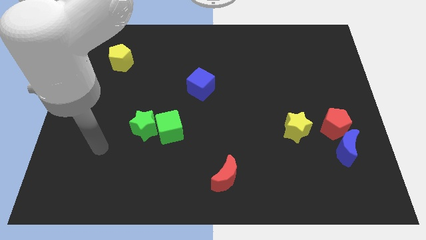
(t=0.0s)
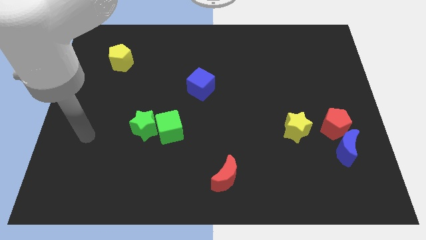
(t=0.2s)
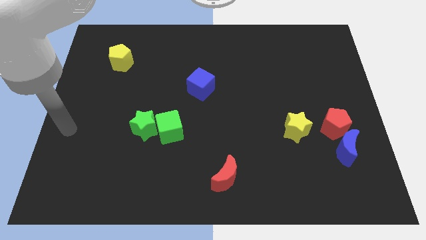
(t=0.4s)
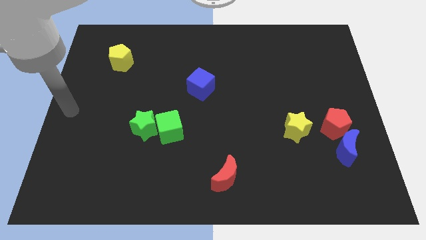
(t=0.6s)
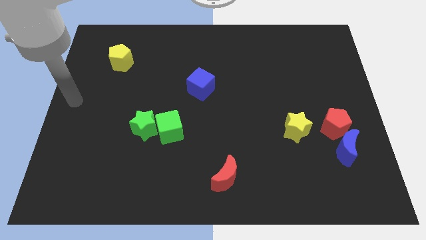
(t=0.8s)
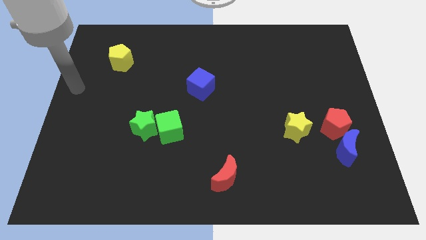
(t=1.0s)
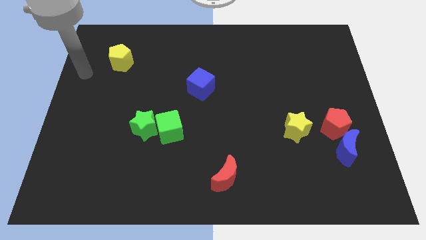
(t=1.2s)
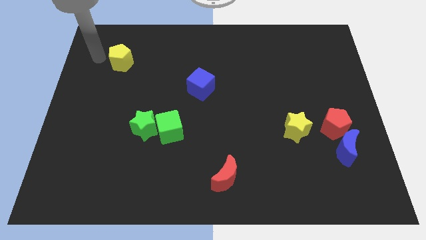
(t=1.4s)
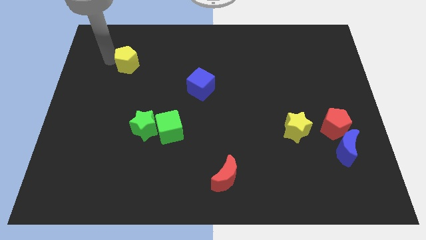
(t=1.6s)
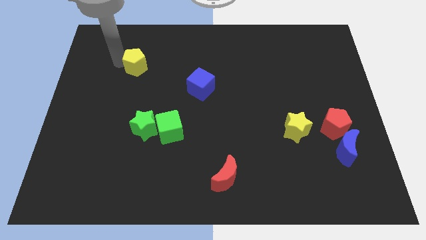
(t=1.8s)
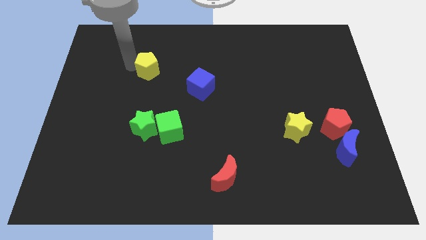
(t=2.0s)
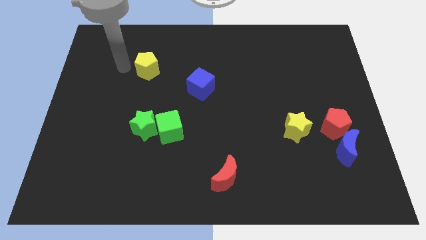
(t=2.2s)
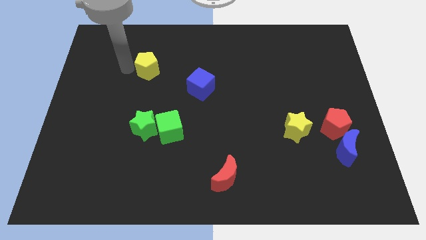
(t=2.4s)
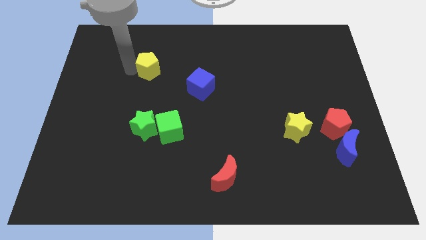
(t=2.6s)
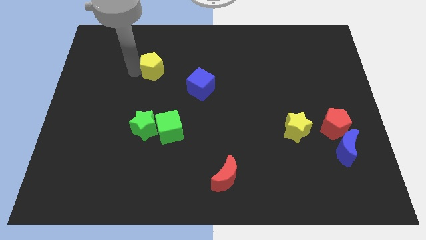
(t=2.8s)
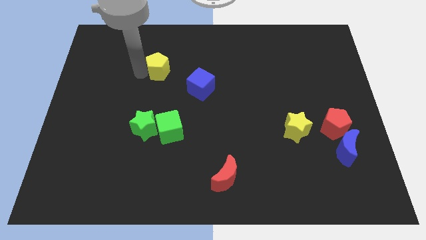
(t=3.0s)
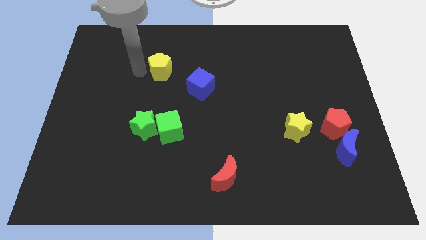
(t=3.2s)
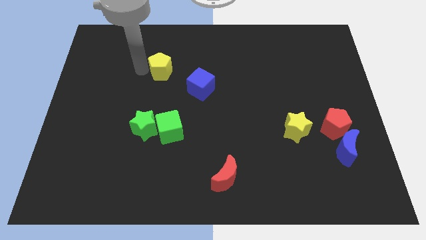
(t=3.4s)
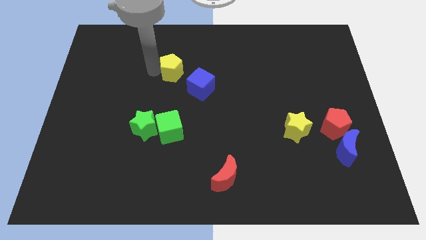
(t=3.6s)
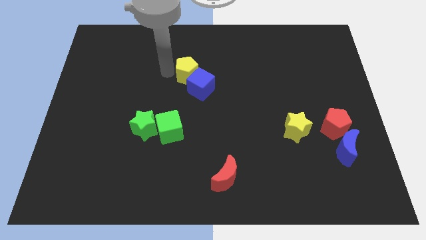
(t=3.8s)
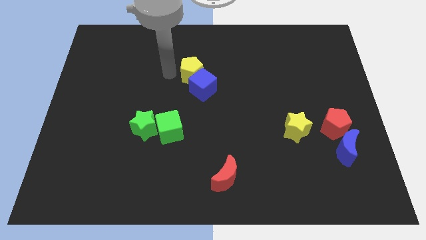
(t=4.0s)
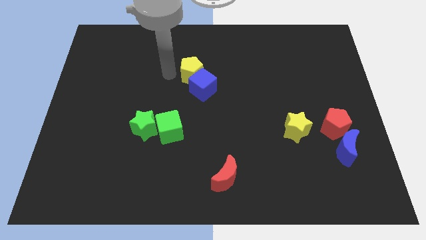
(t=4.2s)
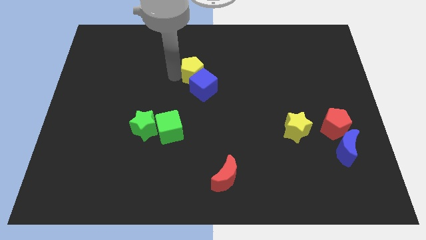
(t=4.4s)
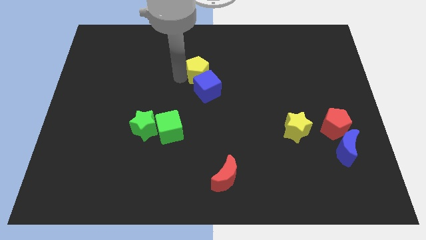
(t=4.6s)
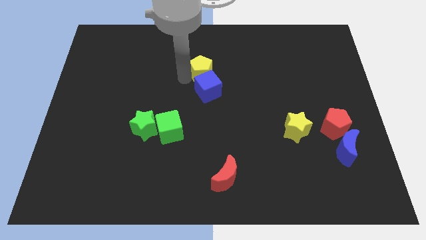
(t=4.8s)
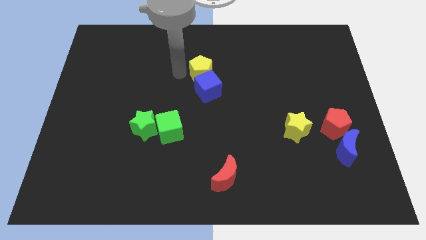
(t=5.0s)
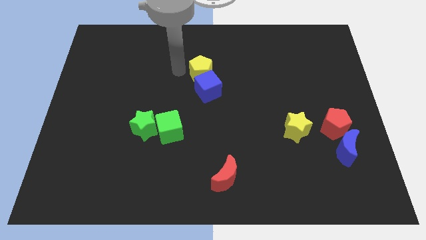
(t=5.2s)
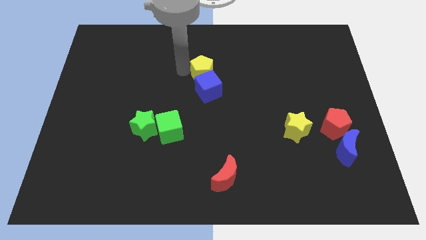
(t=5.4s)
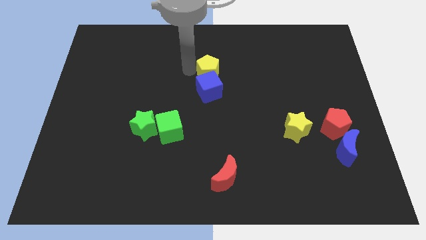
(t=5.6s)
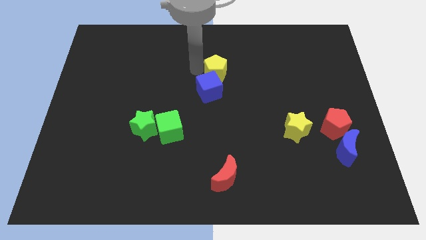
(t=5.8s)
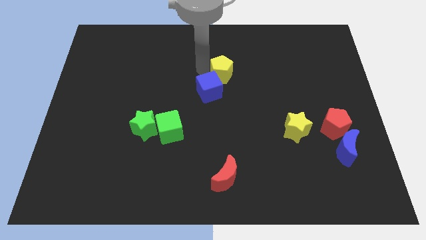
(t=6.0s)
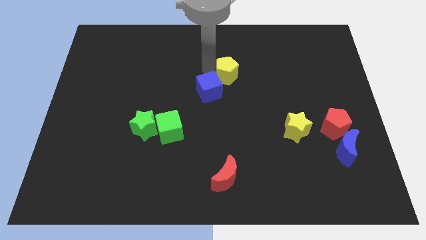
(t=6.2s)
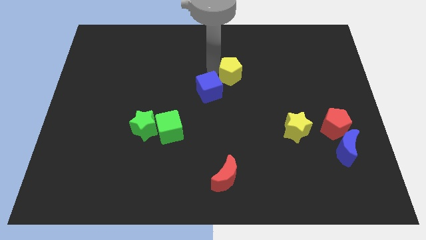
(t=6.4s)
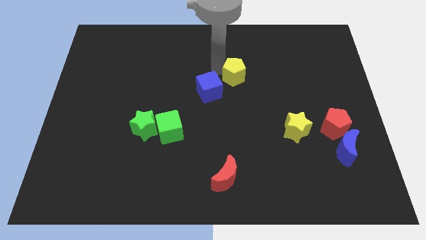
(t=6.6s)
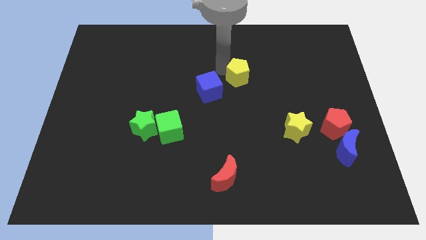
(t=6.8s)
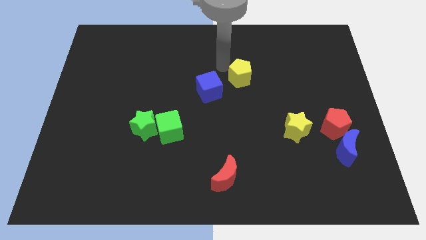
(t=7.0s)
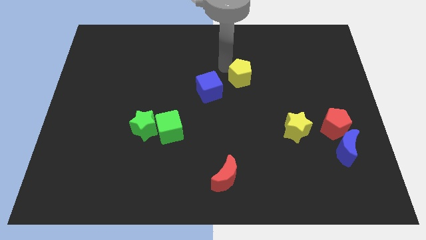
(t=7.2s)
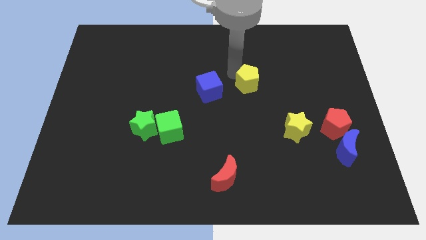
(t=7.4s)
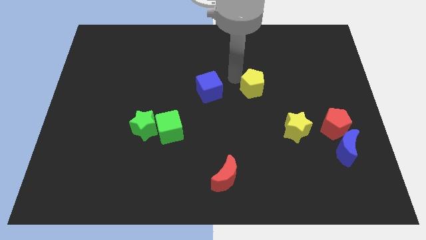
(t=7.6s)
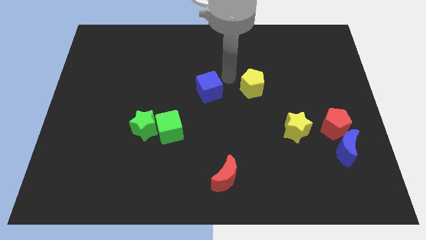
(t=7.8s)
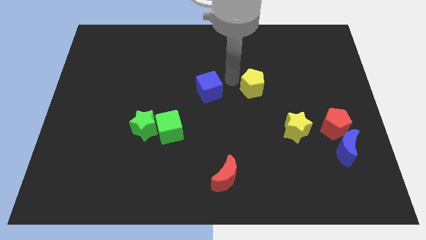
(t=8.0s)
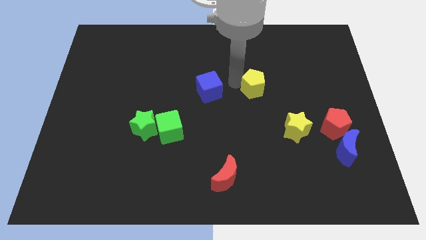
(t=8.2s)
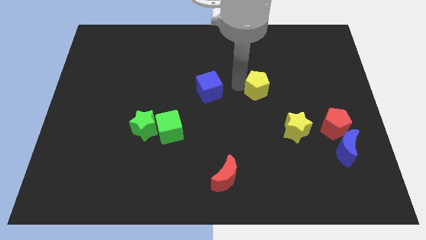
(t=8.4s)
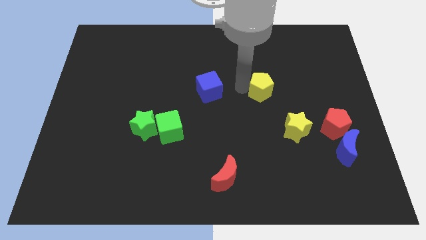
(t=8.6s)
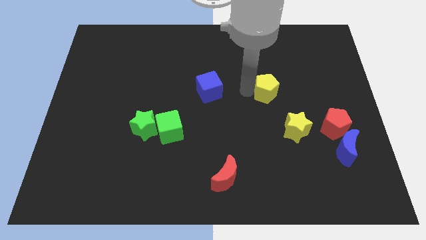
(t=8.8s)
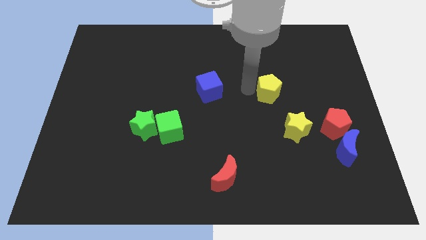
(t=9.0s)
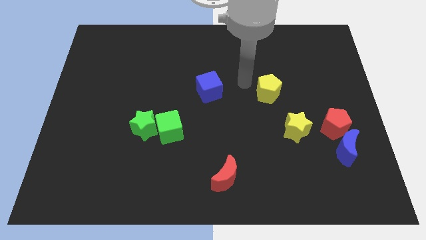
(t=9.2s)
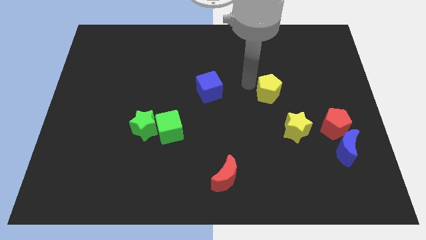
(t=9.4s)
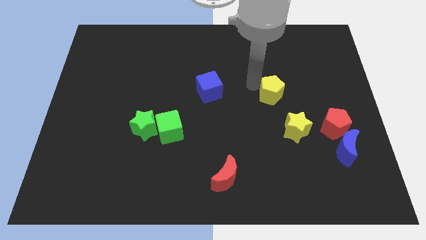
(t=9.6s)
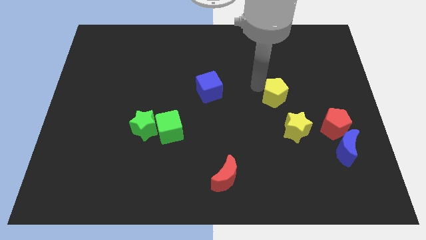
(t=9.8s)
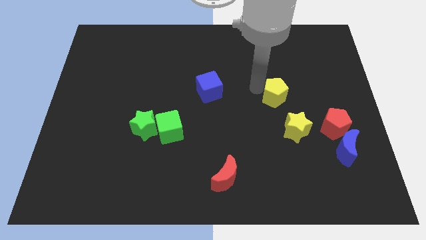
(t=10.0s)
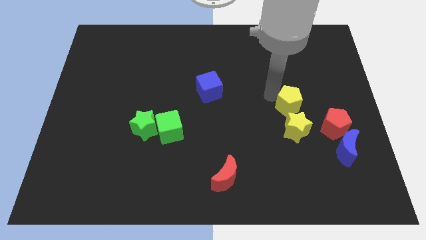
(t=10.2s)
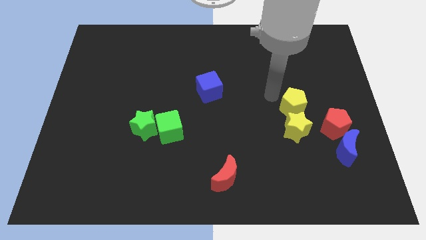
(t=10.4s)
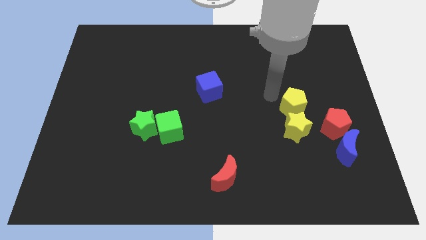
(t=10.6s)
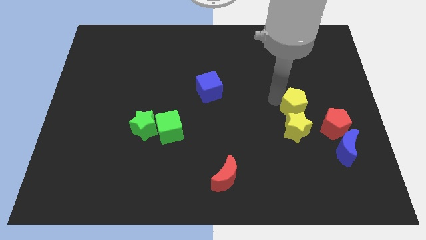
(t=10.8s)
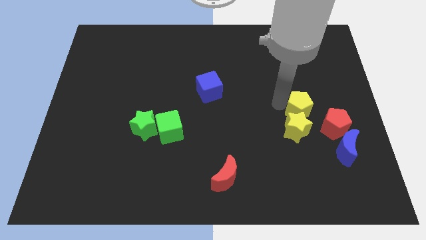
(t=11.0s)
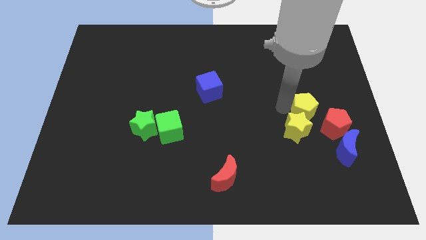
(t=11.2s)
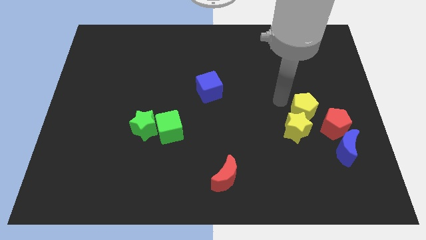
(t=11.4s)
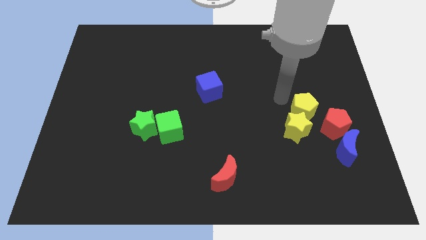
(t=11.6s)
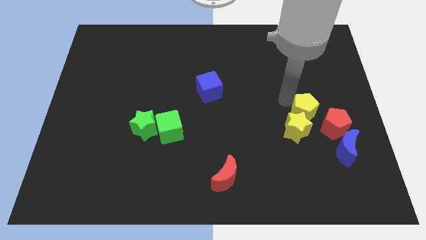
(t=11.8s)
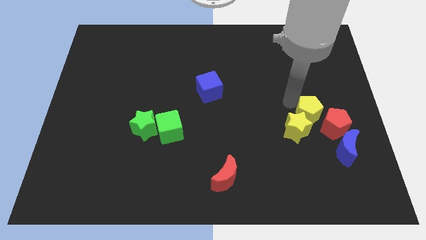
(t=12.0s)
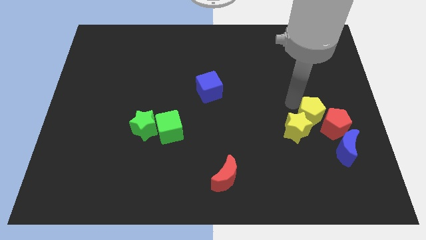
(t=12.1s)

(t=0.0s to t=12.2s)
push the yellow pentagon towards the red pentagon
